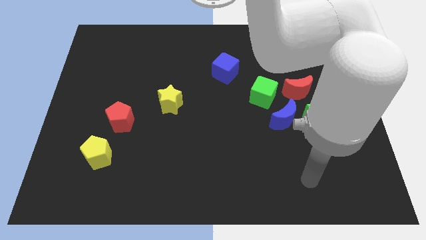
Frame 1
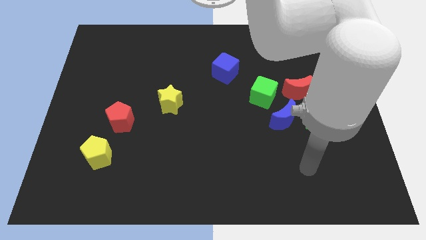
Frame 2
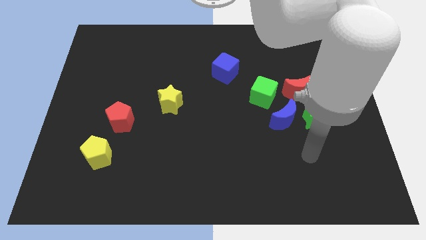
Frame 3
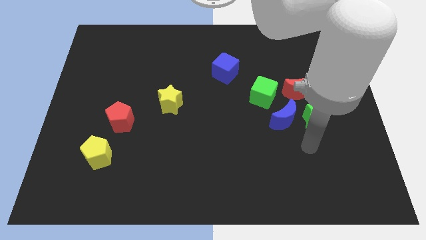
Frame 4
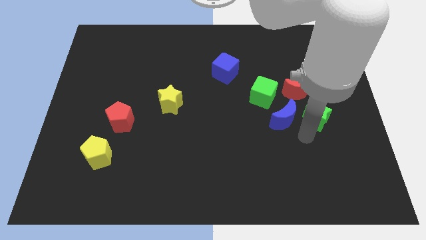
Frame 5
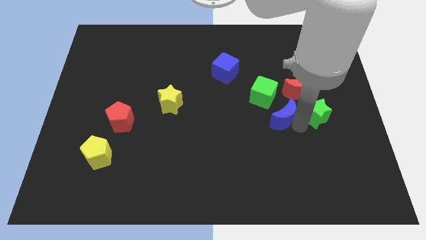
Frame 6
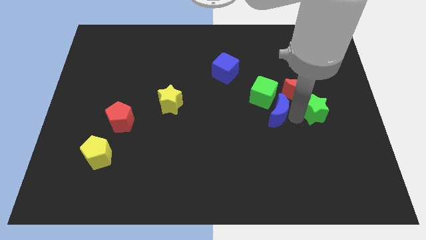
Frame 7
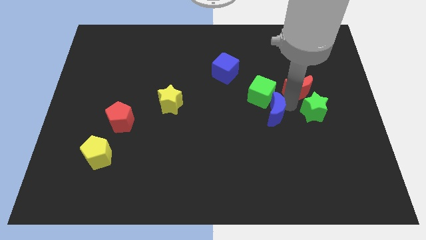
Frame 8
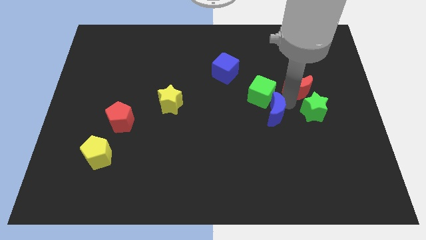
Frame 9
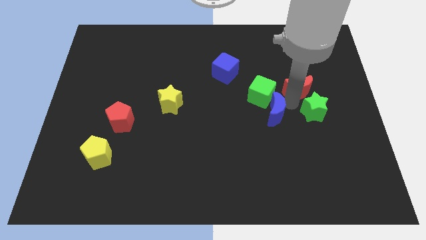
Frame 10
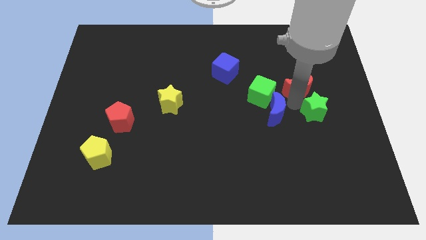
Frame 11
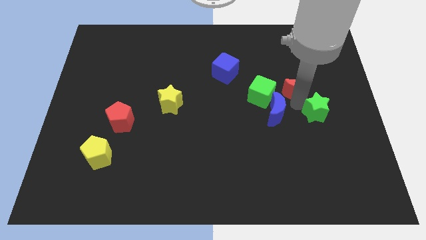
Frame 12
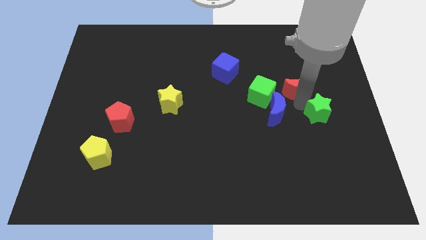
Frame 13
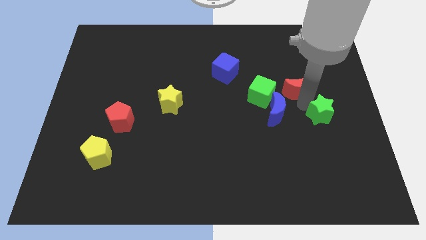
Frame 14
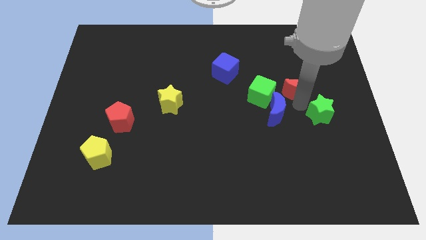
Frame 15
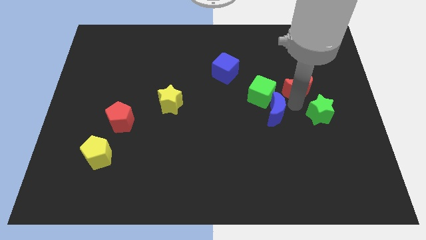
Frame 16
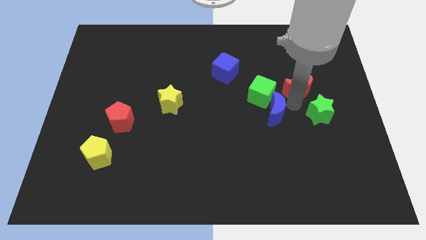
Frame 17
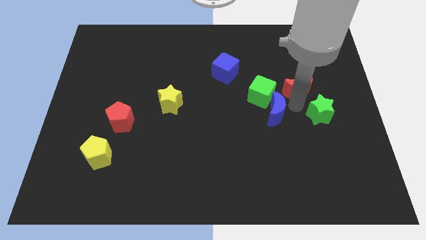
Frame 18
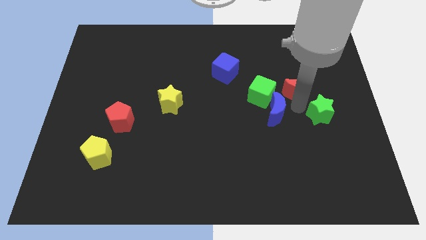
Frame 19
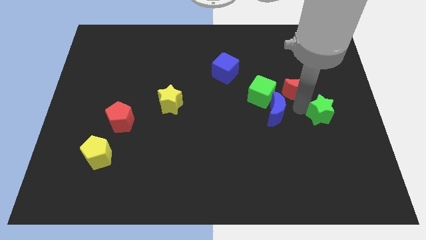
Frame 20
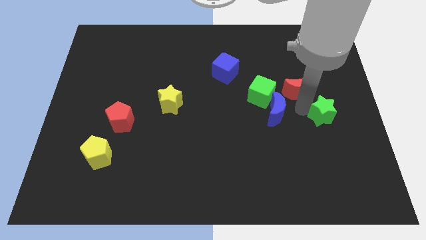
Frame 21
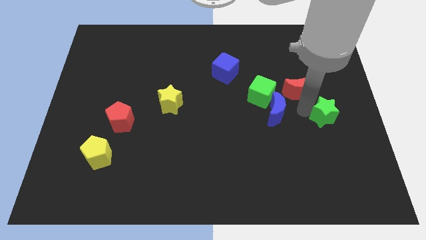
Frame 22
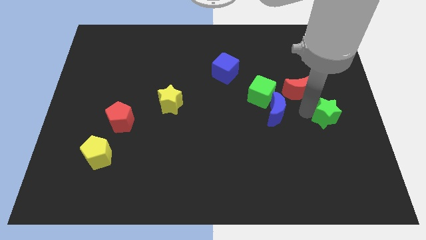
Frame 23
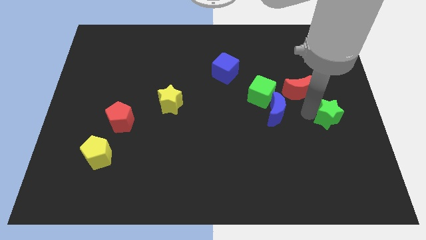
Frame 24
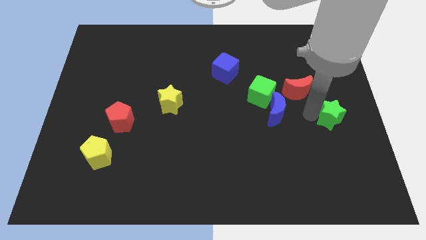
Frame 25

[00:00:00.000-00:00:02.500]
move the green star away from the blue moon and red moon

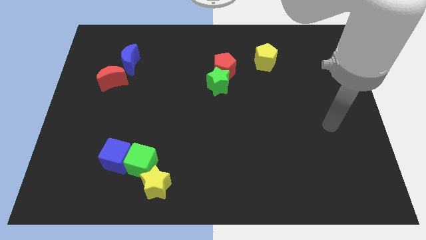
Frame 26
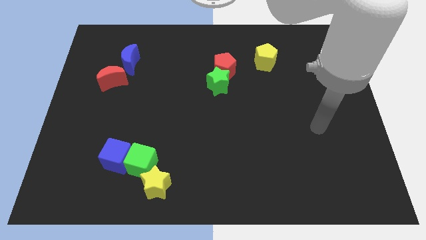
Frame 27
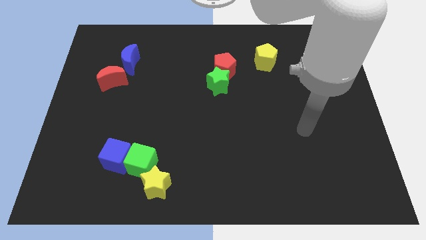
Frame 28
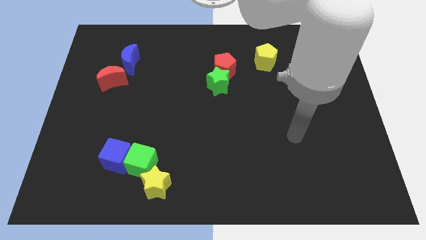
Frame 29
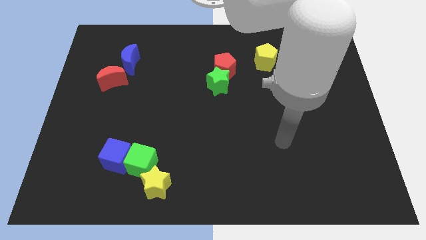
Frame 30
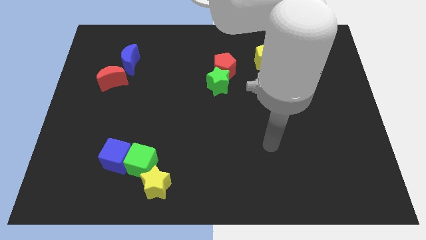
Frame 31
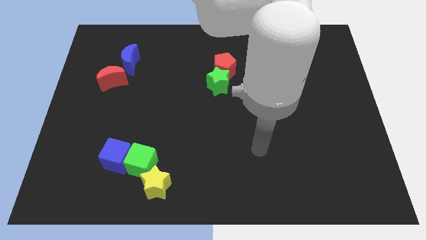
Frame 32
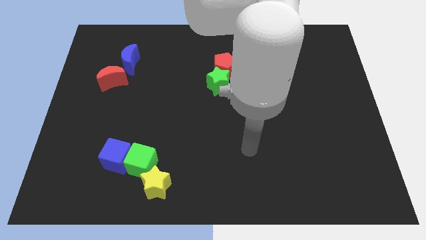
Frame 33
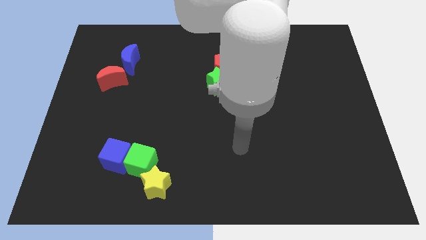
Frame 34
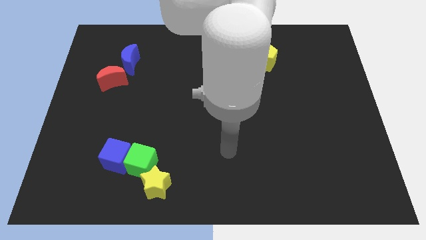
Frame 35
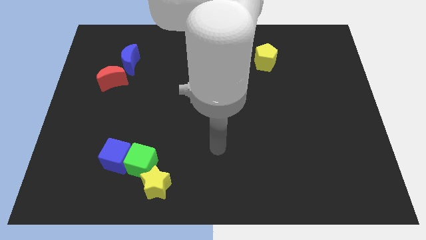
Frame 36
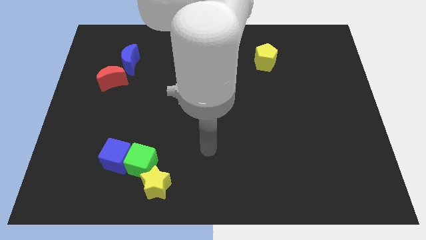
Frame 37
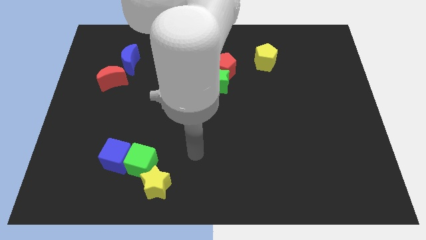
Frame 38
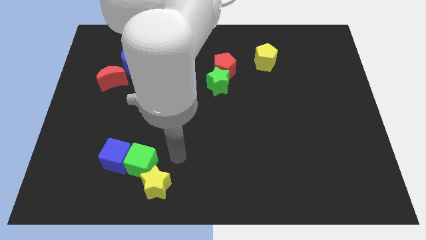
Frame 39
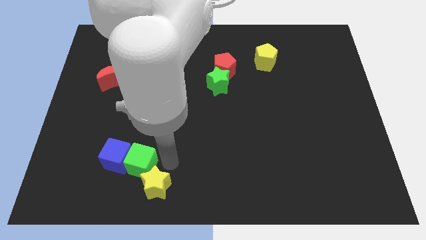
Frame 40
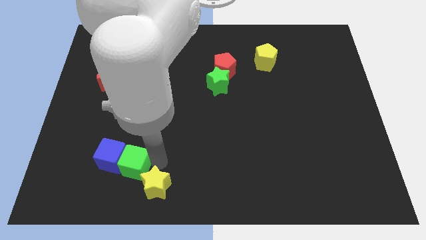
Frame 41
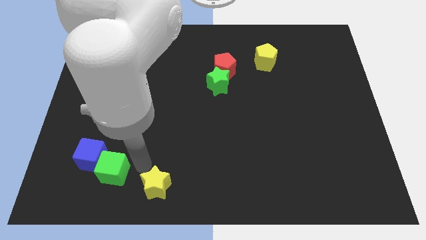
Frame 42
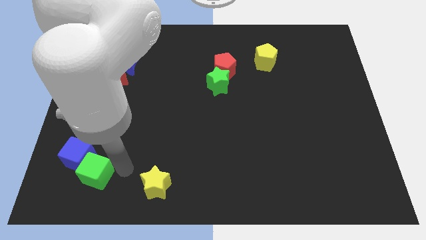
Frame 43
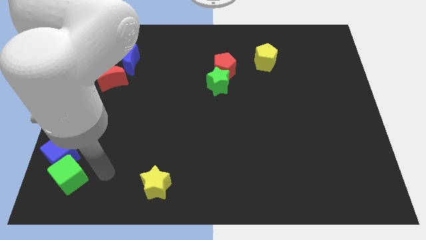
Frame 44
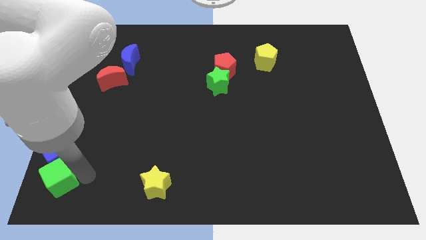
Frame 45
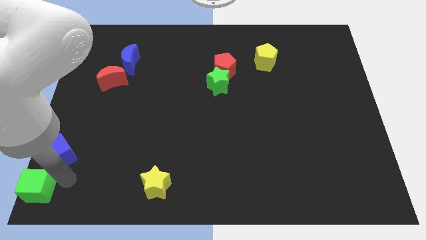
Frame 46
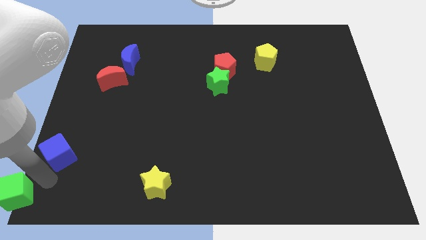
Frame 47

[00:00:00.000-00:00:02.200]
separate the blue cube from the green cube

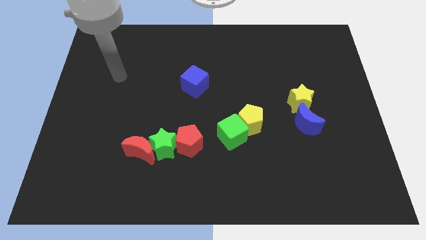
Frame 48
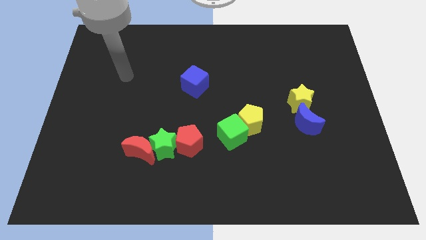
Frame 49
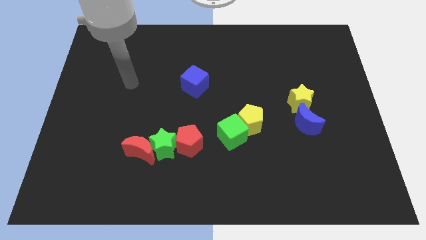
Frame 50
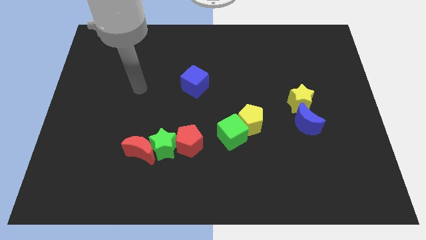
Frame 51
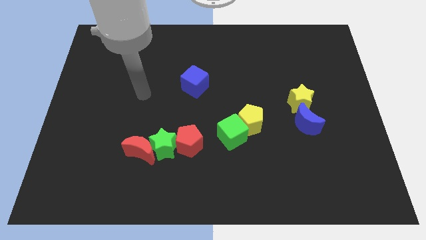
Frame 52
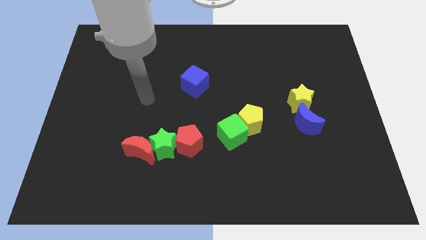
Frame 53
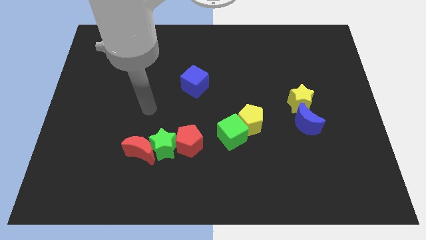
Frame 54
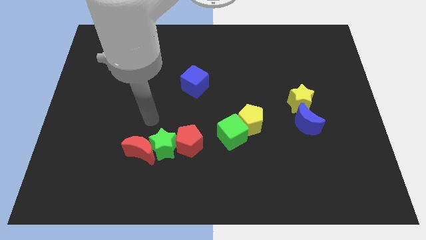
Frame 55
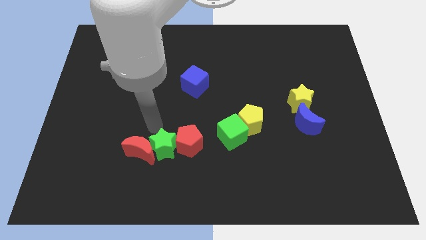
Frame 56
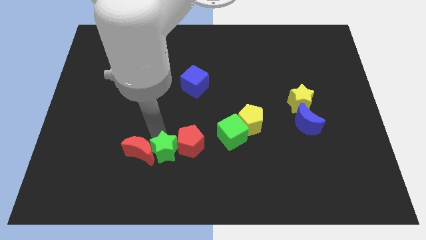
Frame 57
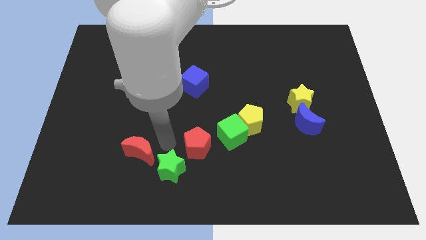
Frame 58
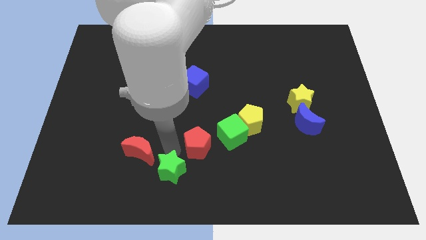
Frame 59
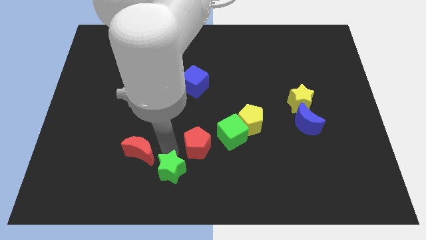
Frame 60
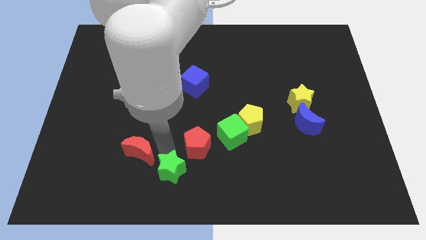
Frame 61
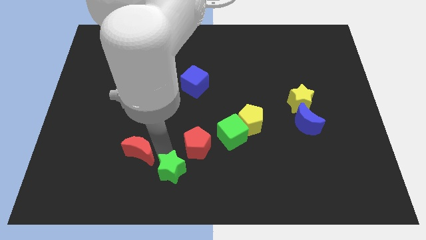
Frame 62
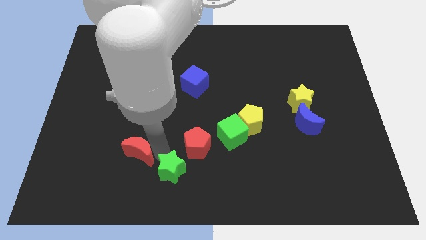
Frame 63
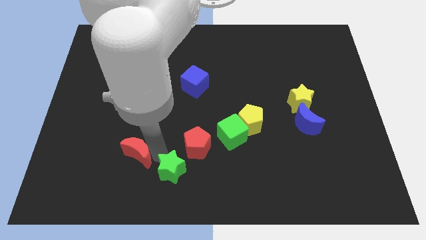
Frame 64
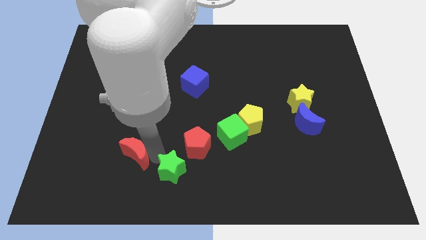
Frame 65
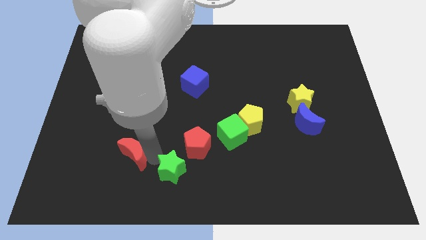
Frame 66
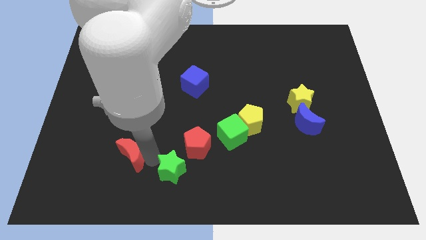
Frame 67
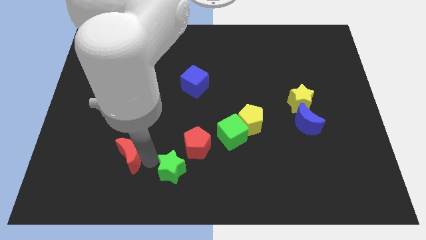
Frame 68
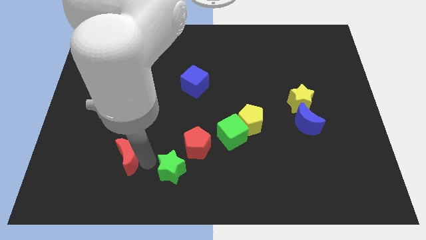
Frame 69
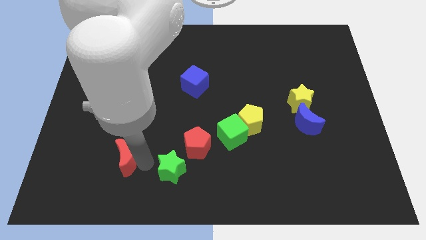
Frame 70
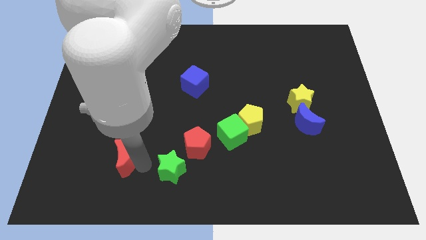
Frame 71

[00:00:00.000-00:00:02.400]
separate the red moon from the green star

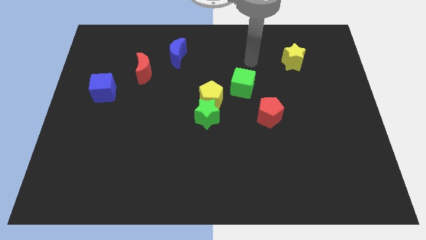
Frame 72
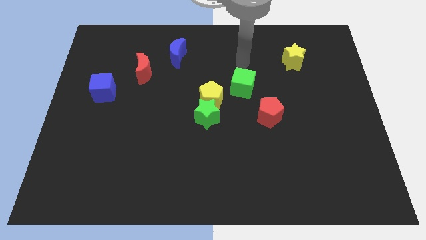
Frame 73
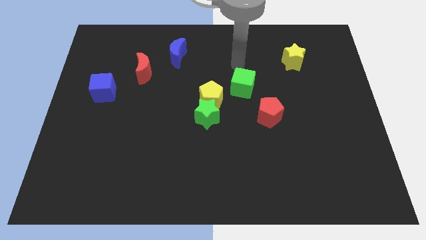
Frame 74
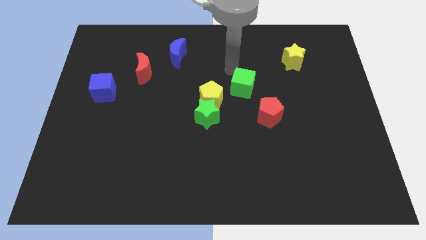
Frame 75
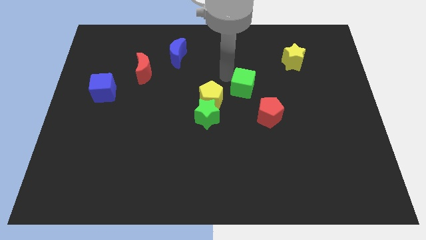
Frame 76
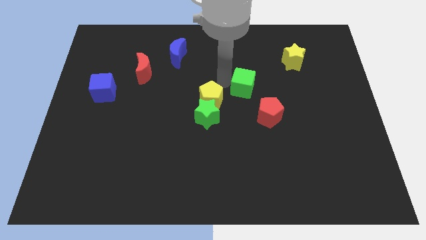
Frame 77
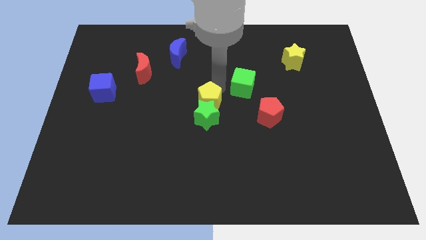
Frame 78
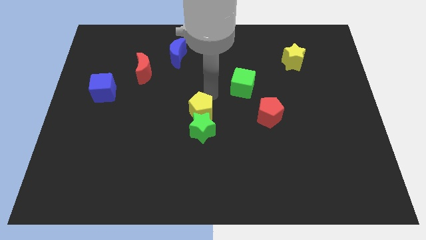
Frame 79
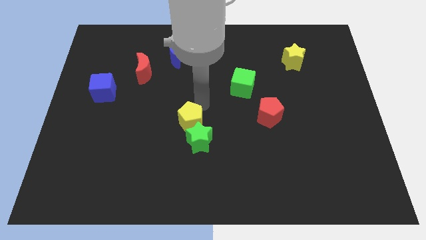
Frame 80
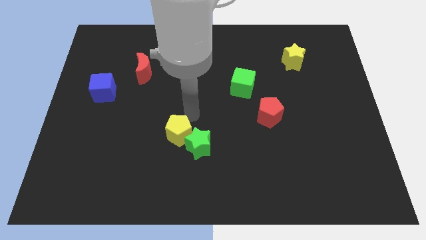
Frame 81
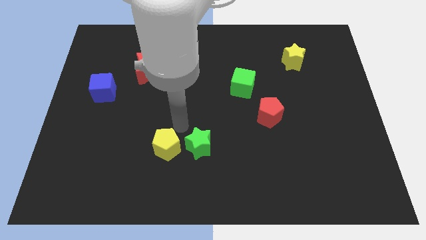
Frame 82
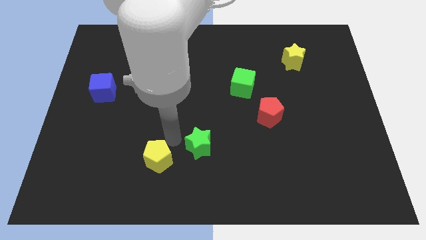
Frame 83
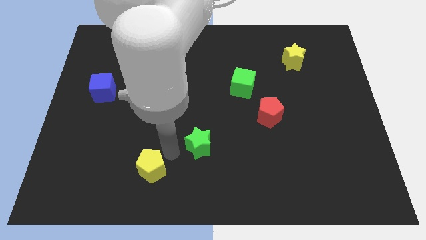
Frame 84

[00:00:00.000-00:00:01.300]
separate the green star from the yellow pentagon

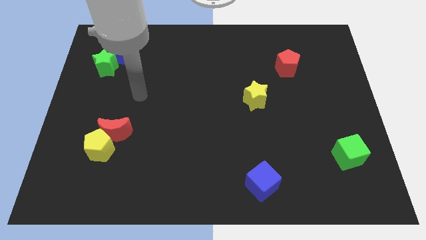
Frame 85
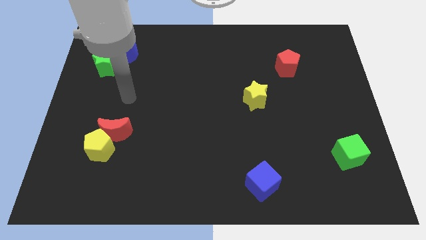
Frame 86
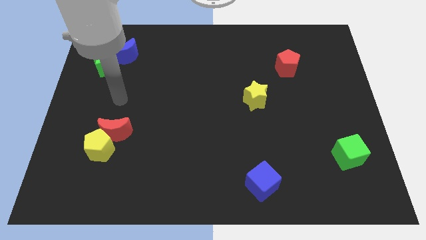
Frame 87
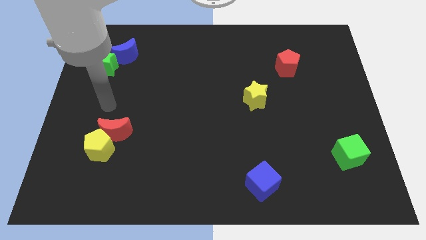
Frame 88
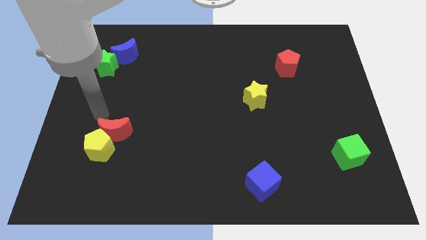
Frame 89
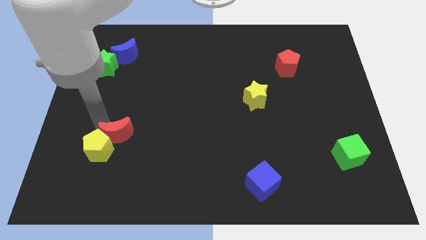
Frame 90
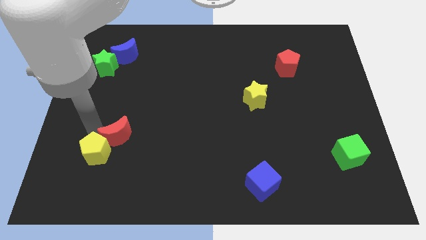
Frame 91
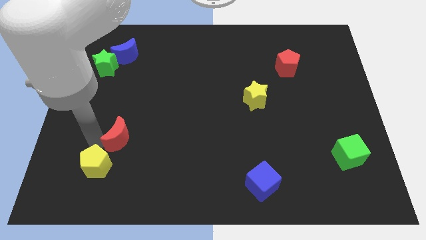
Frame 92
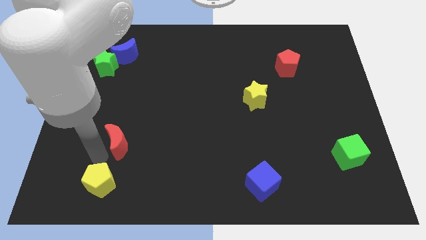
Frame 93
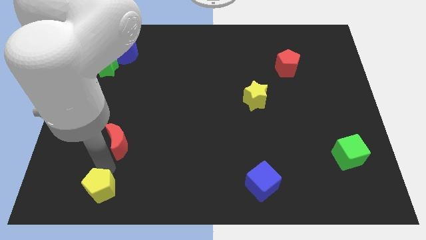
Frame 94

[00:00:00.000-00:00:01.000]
move the red moon away from the yellow pentagon
